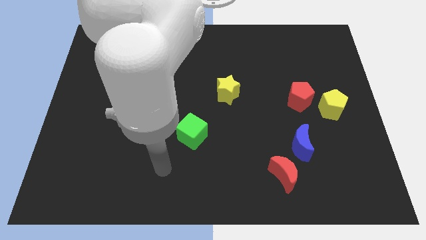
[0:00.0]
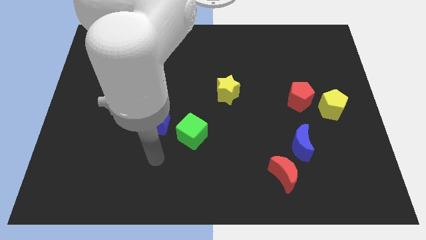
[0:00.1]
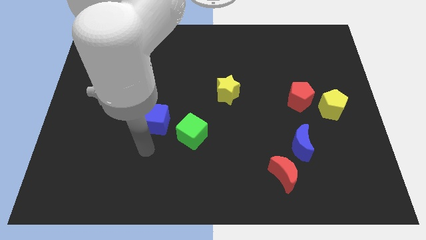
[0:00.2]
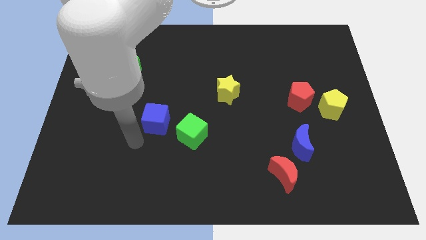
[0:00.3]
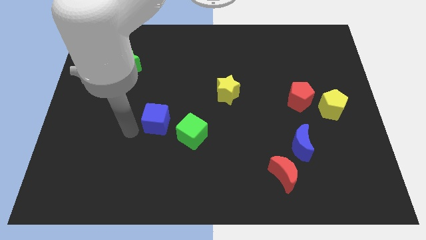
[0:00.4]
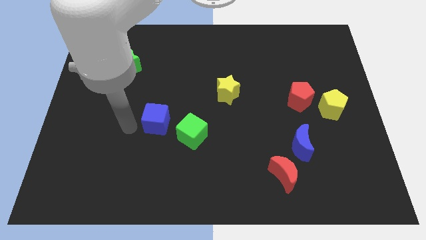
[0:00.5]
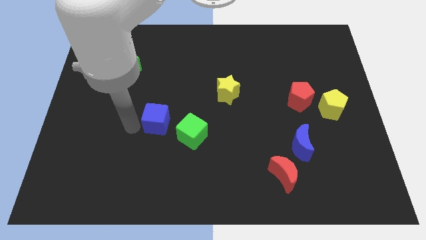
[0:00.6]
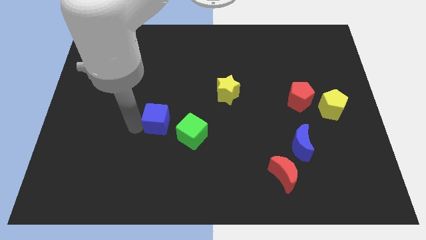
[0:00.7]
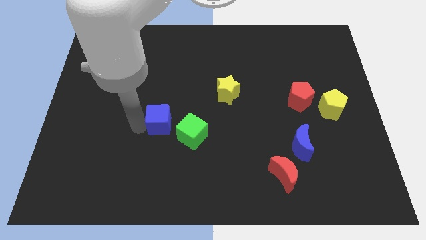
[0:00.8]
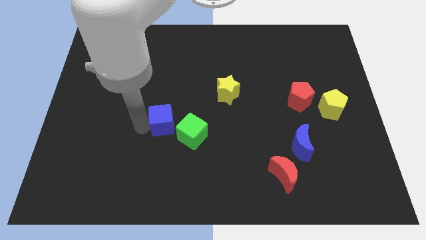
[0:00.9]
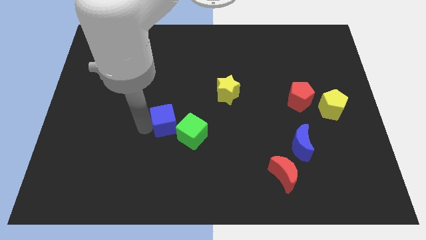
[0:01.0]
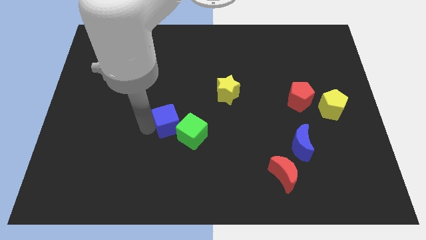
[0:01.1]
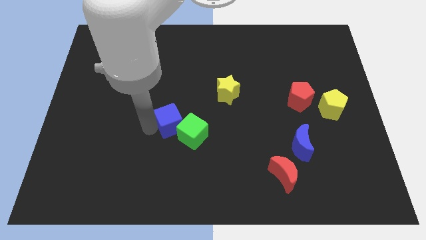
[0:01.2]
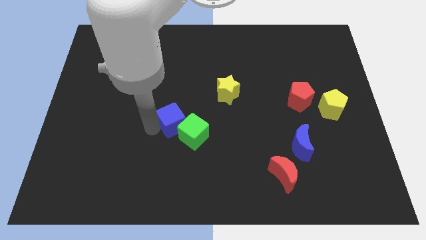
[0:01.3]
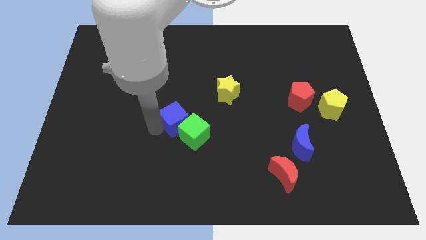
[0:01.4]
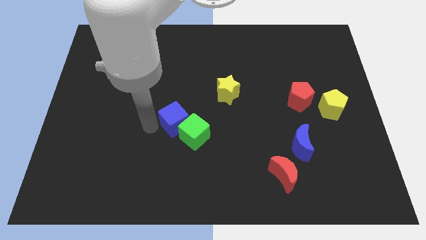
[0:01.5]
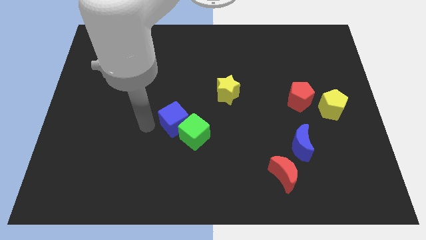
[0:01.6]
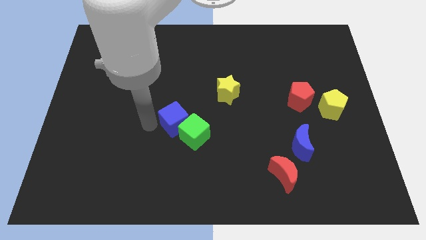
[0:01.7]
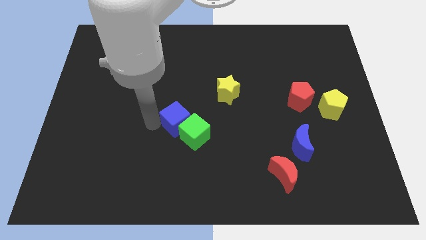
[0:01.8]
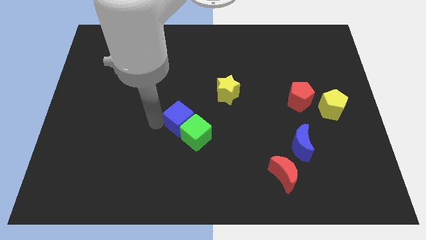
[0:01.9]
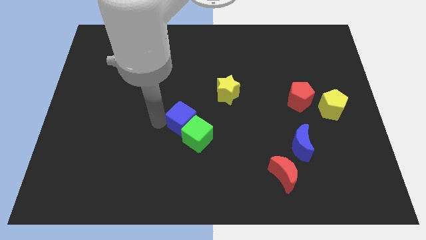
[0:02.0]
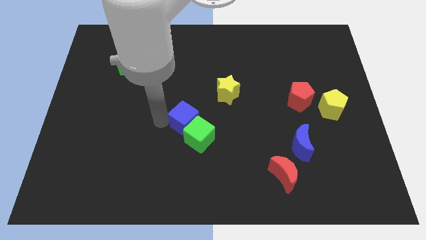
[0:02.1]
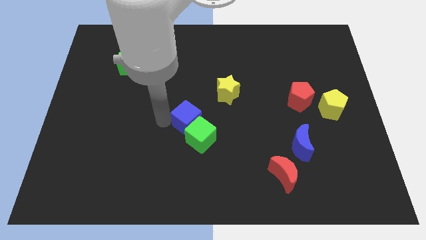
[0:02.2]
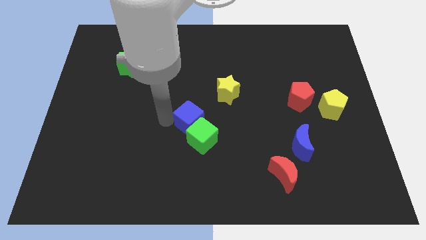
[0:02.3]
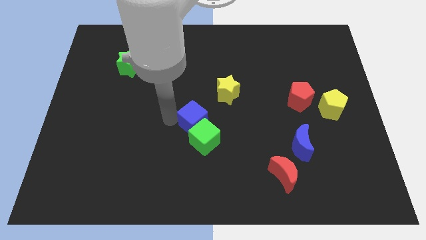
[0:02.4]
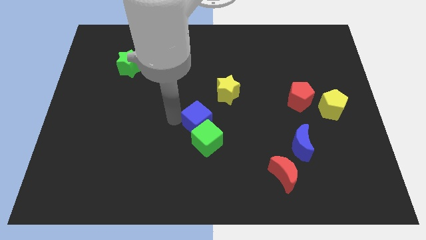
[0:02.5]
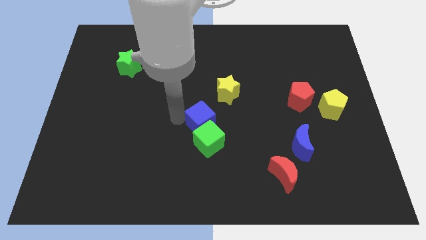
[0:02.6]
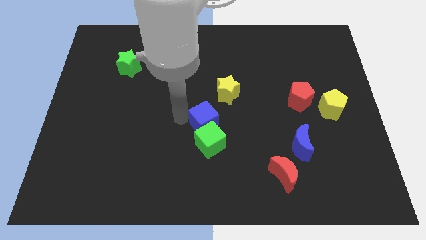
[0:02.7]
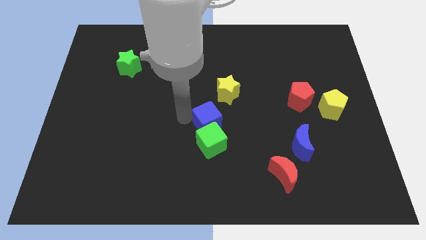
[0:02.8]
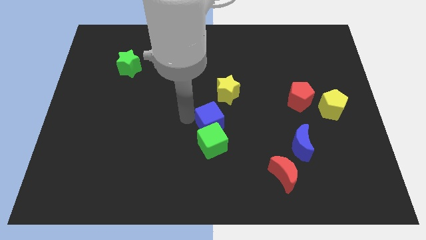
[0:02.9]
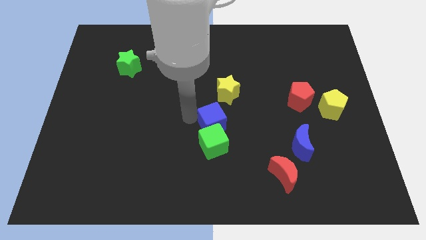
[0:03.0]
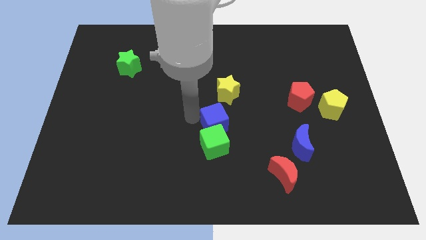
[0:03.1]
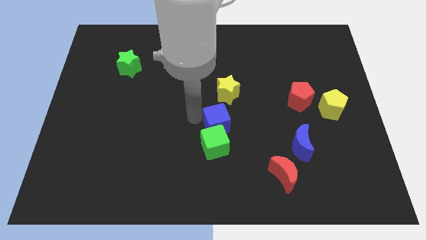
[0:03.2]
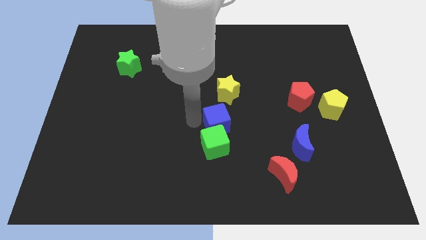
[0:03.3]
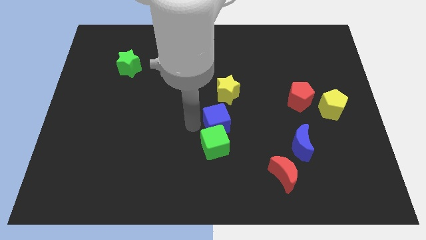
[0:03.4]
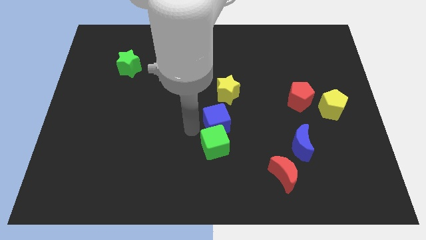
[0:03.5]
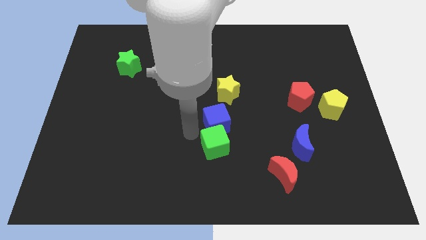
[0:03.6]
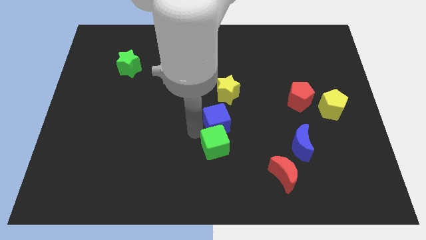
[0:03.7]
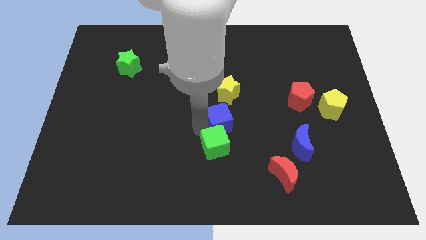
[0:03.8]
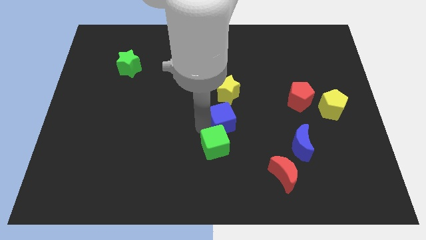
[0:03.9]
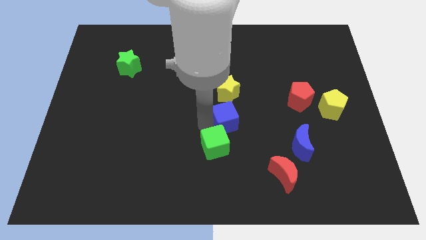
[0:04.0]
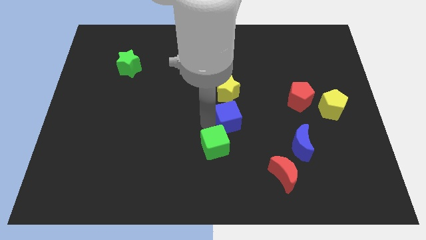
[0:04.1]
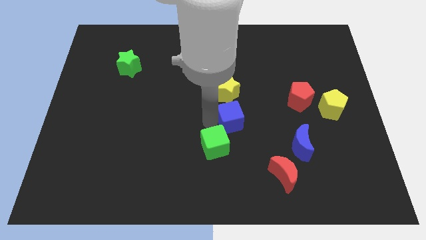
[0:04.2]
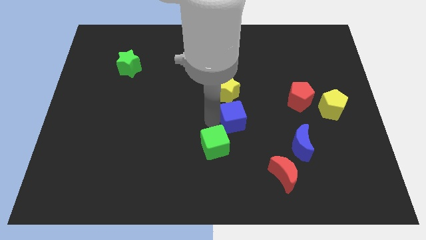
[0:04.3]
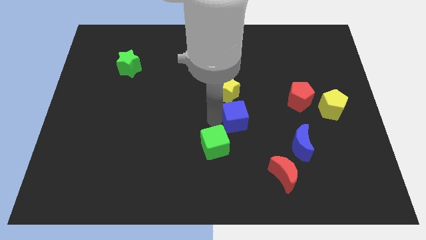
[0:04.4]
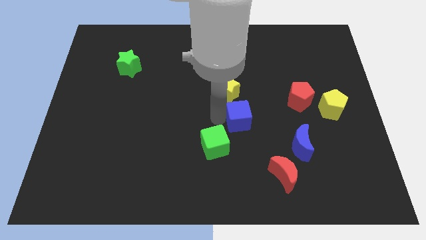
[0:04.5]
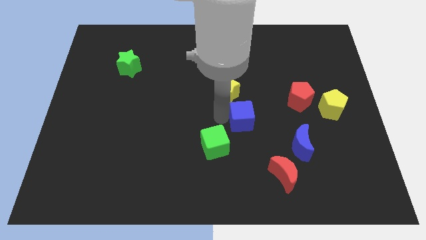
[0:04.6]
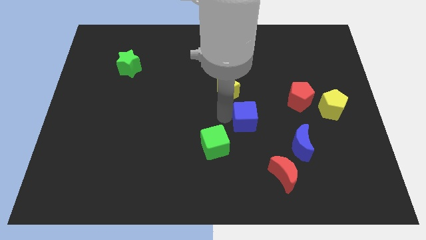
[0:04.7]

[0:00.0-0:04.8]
slide the blue cube right

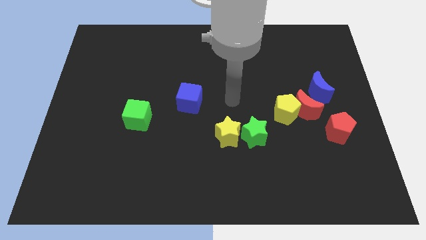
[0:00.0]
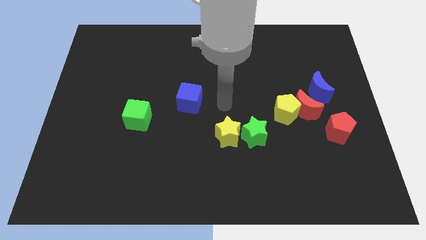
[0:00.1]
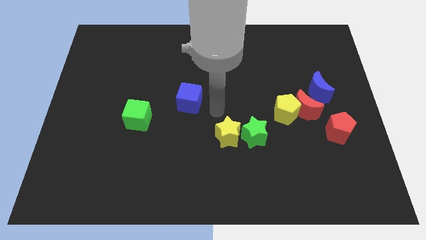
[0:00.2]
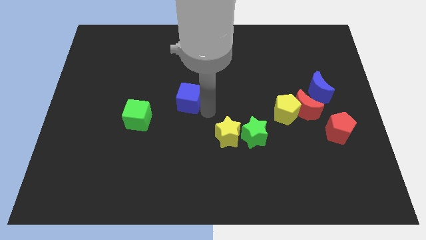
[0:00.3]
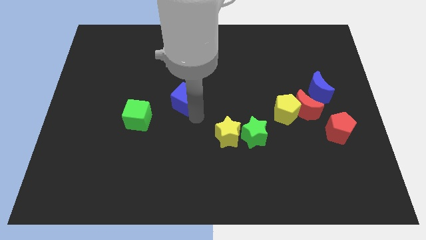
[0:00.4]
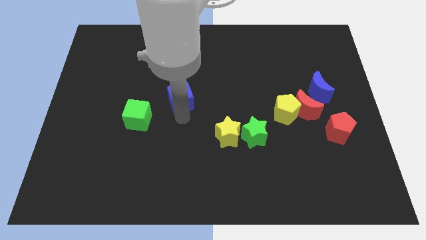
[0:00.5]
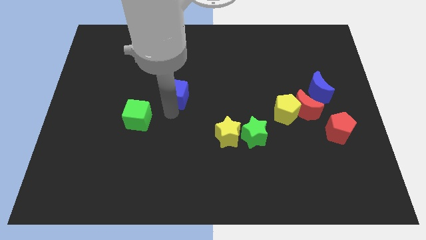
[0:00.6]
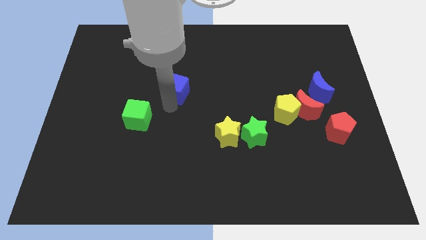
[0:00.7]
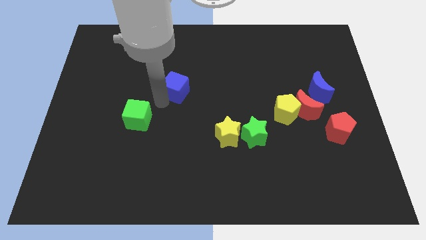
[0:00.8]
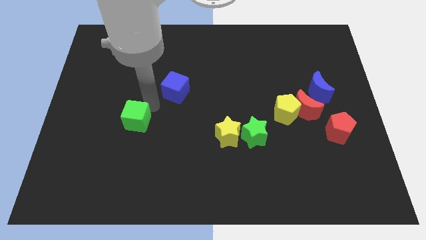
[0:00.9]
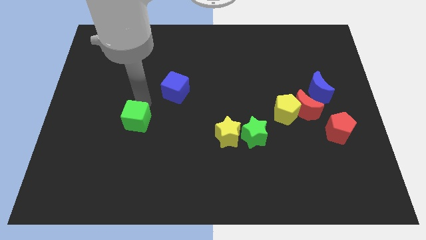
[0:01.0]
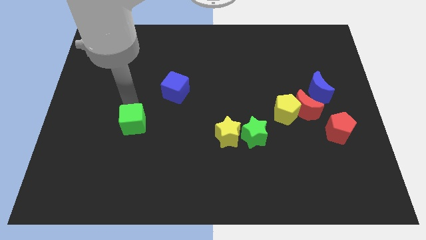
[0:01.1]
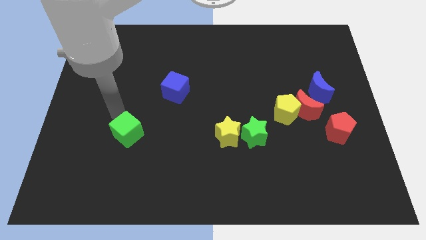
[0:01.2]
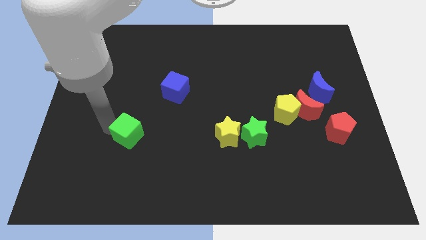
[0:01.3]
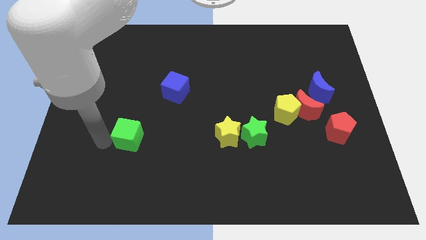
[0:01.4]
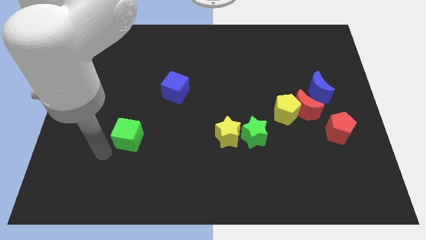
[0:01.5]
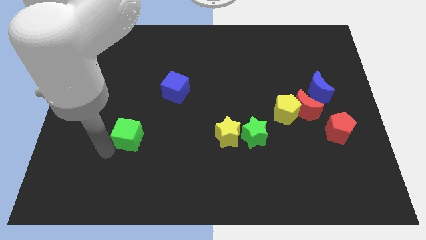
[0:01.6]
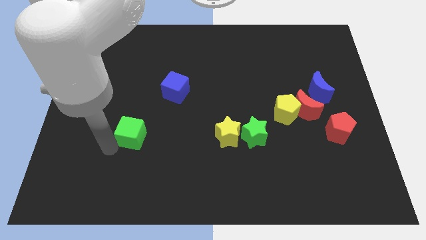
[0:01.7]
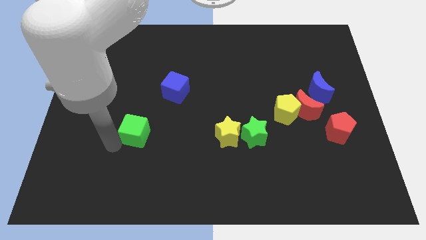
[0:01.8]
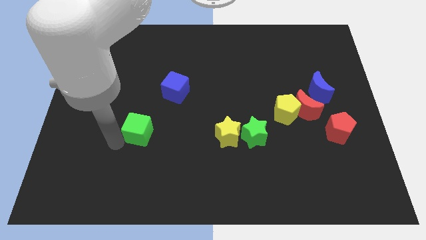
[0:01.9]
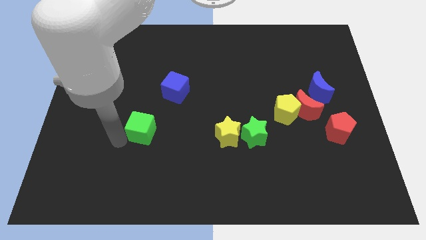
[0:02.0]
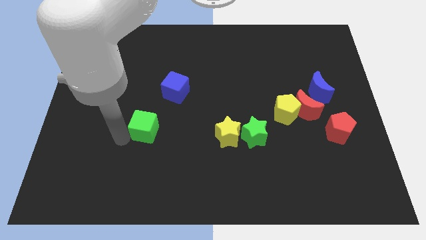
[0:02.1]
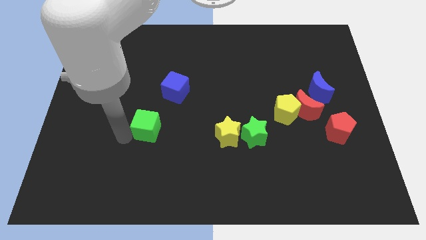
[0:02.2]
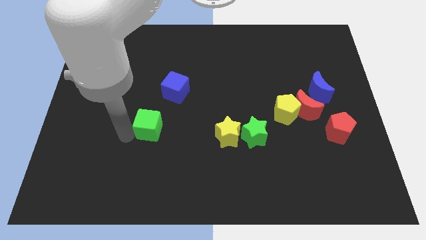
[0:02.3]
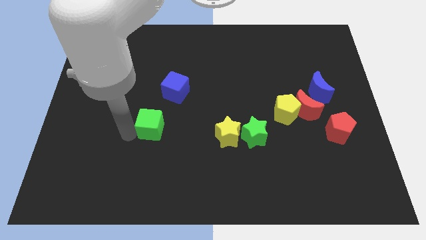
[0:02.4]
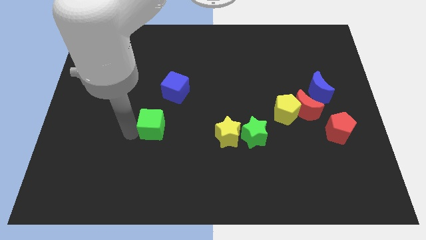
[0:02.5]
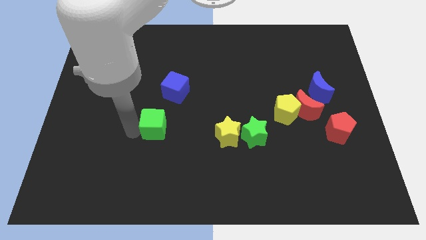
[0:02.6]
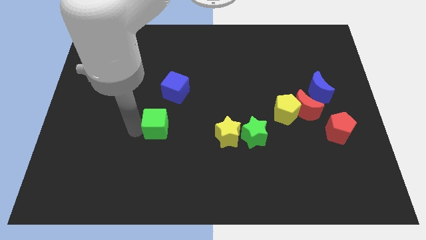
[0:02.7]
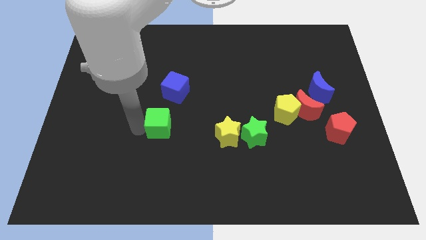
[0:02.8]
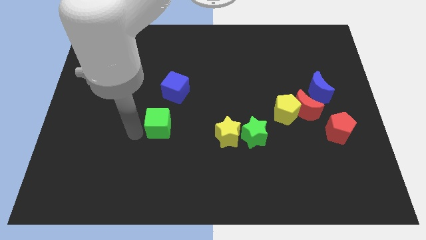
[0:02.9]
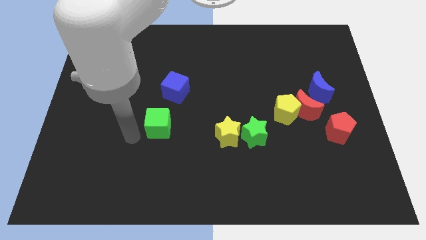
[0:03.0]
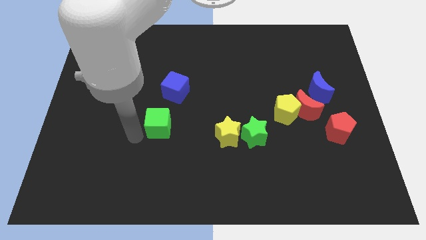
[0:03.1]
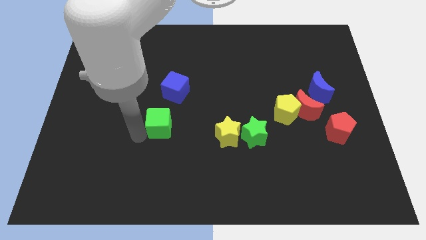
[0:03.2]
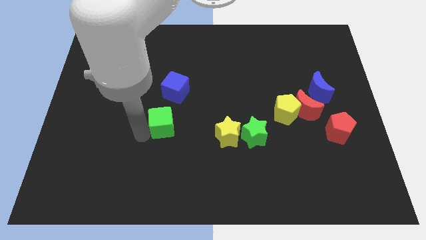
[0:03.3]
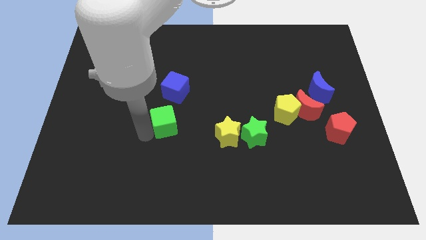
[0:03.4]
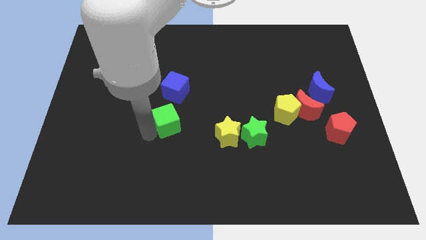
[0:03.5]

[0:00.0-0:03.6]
slide the green cube slightly right
